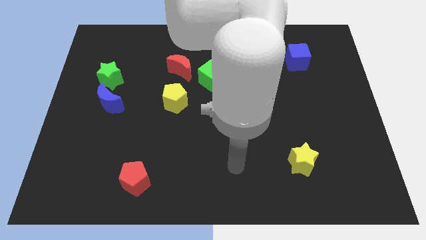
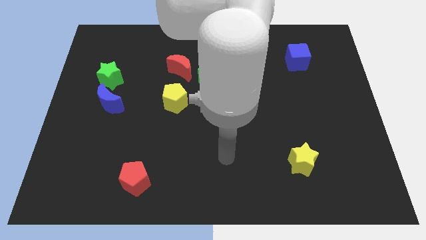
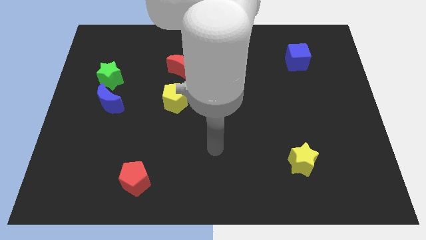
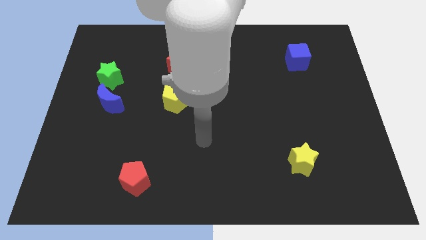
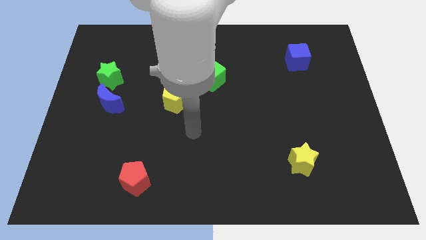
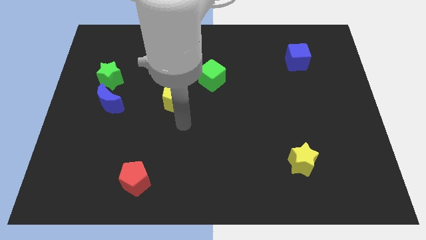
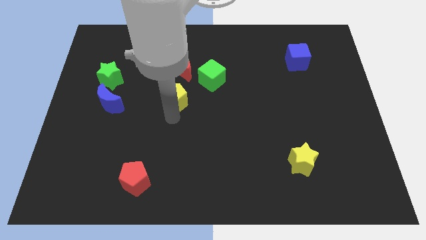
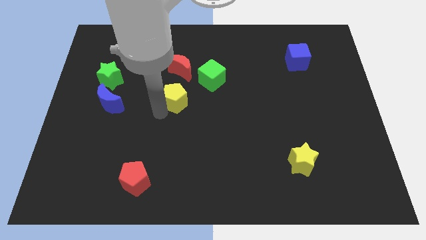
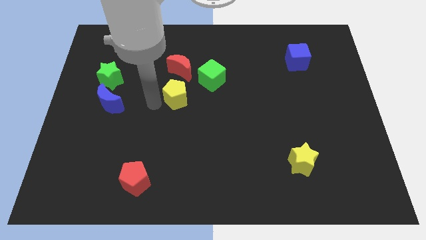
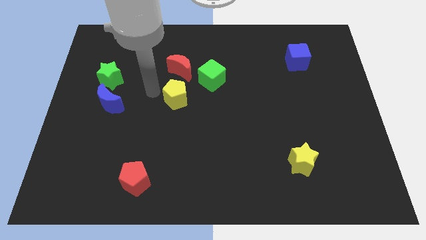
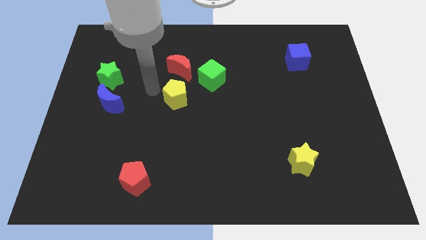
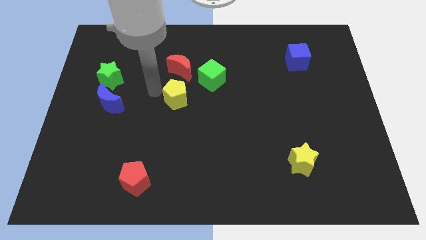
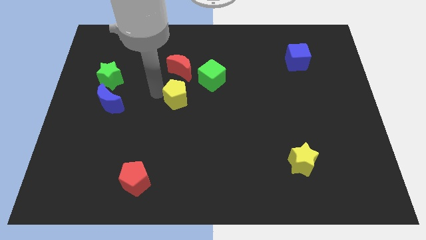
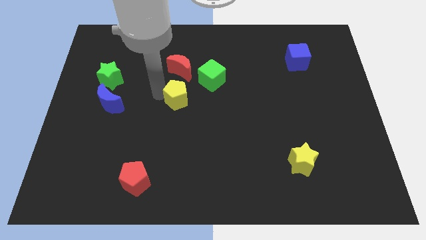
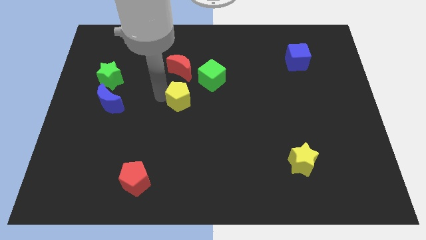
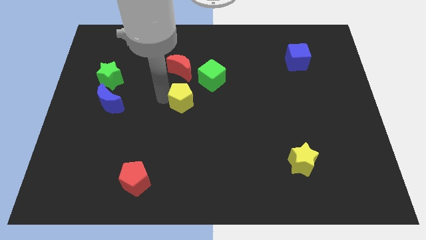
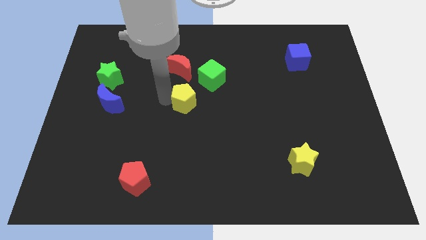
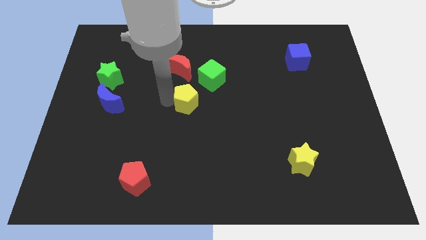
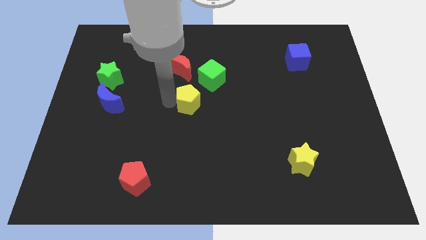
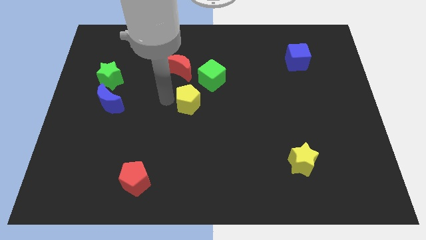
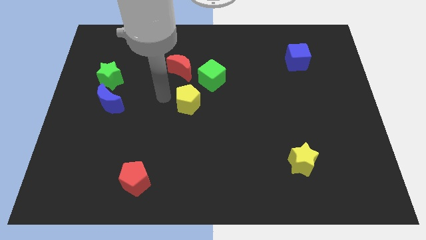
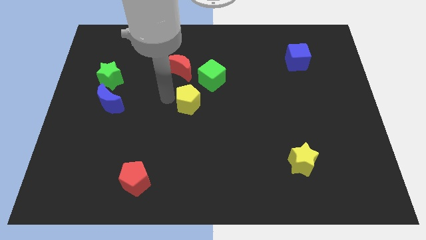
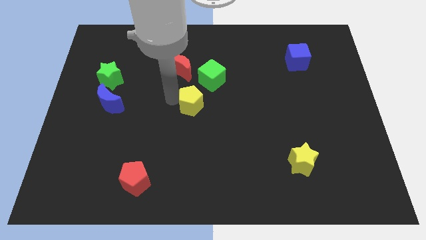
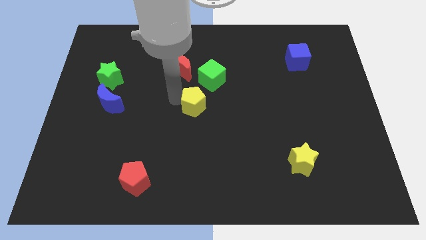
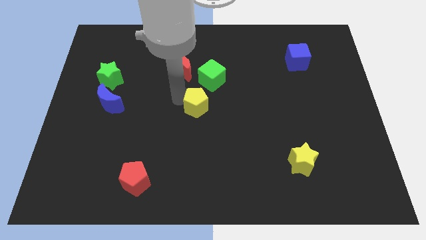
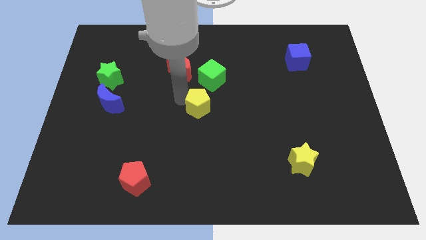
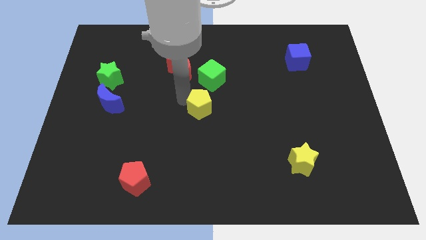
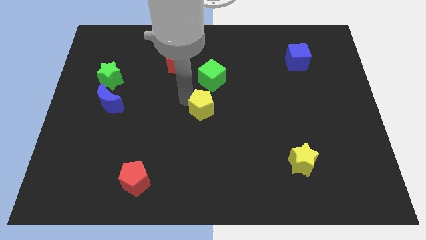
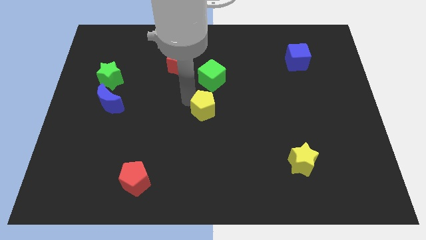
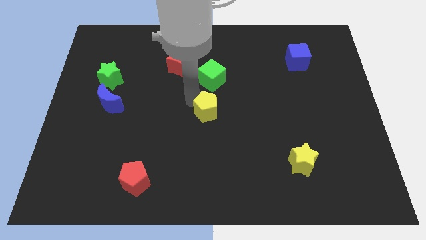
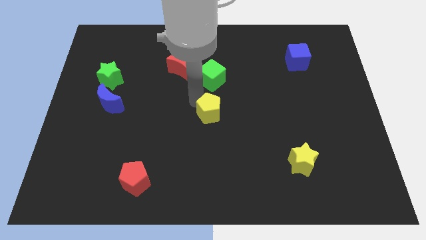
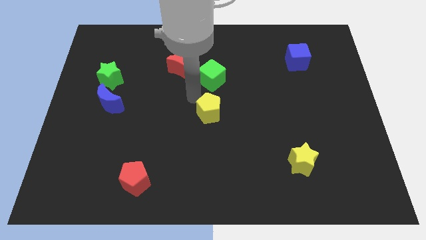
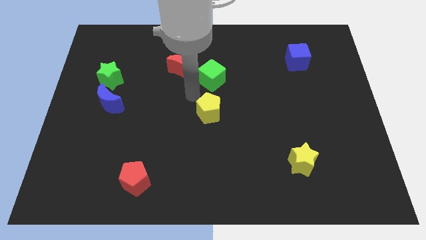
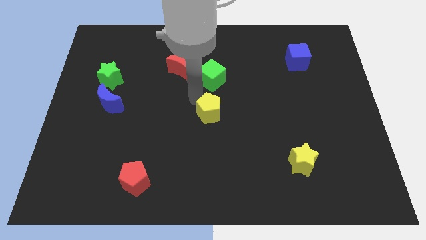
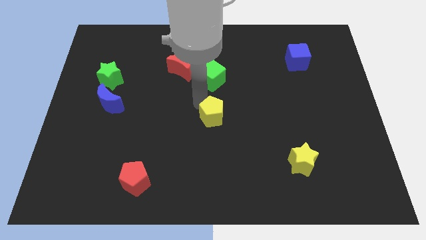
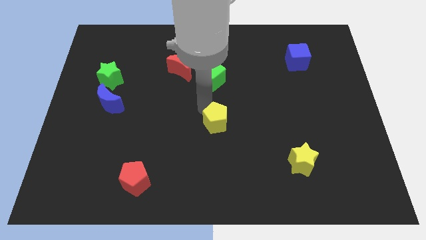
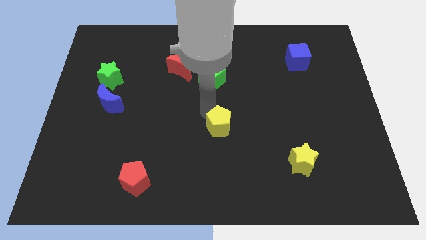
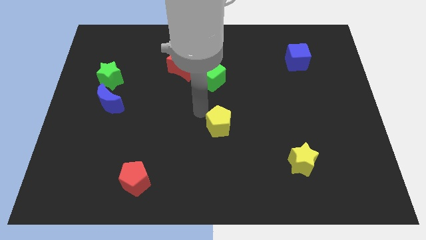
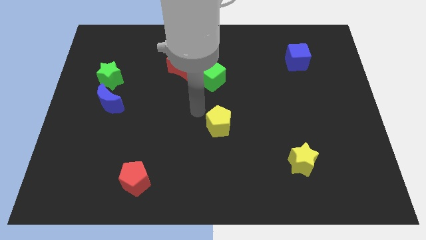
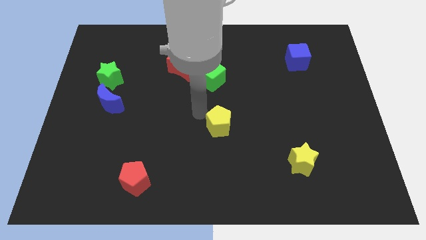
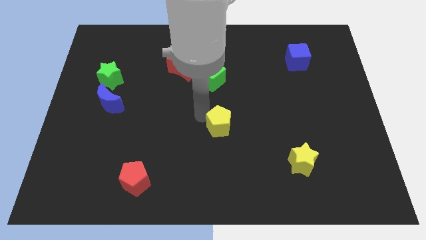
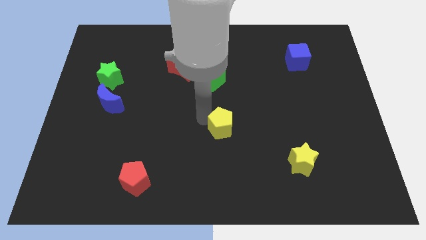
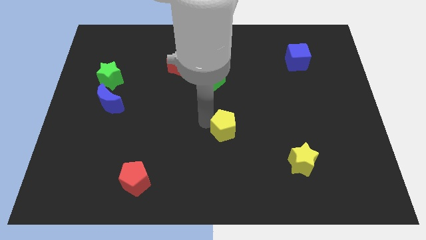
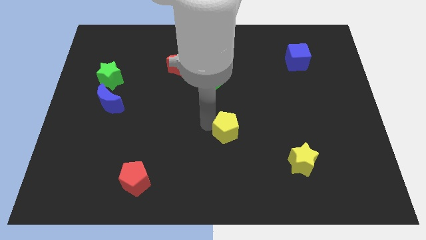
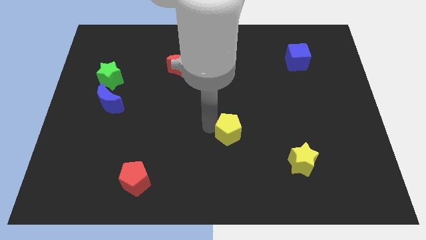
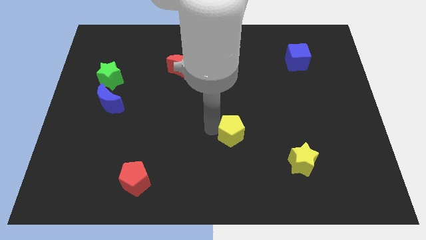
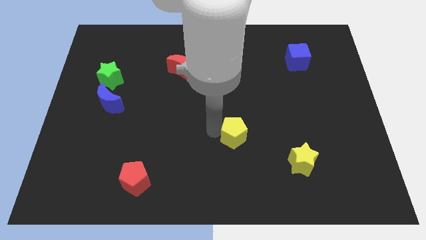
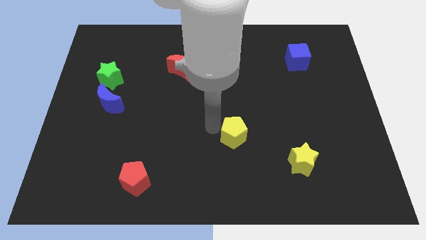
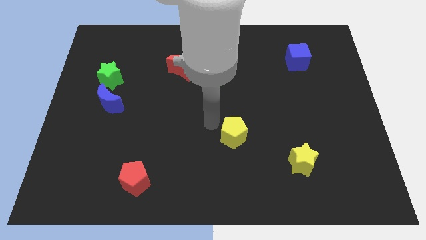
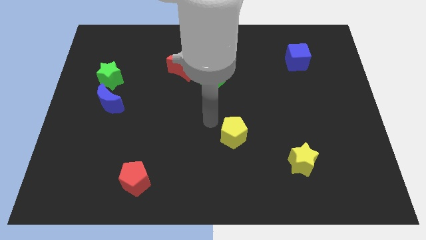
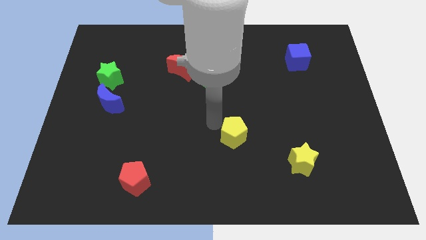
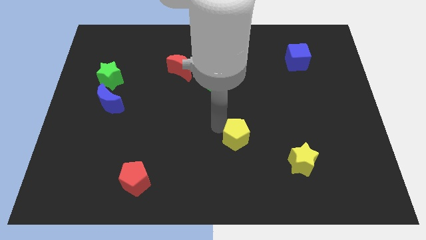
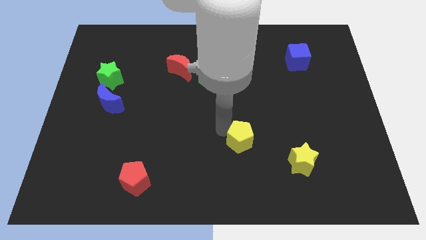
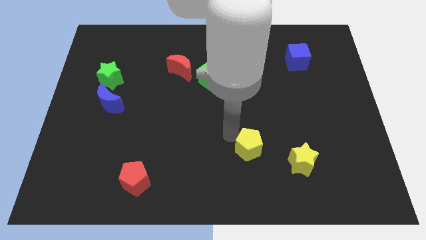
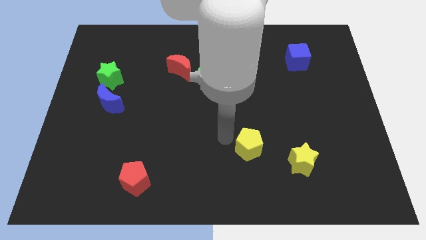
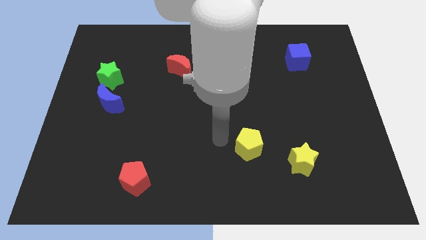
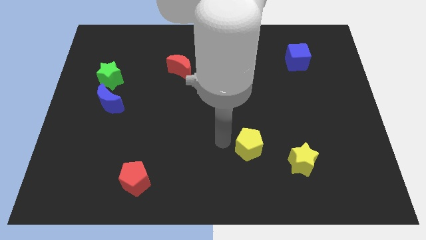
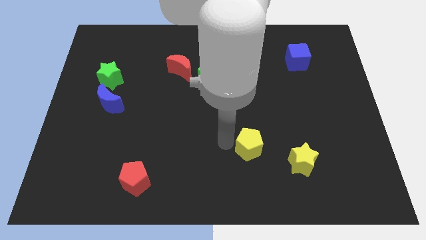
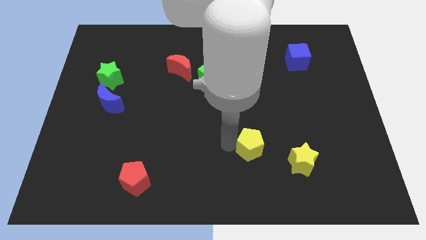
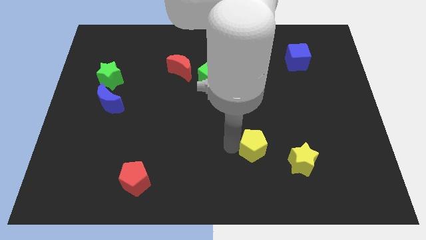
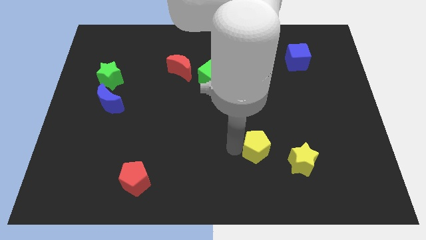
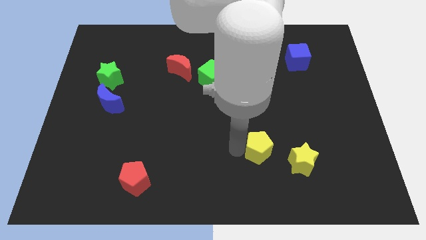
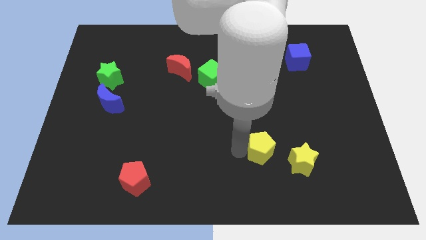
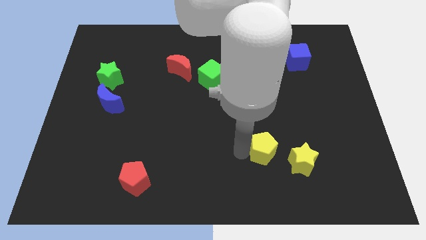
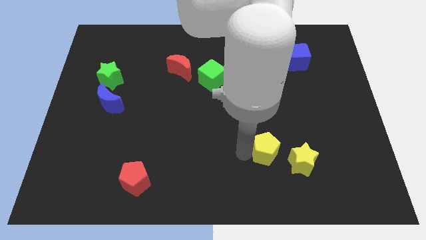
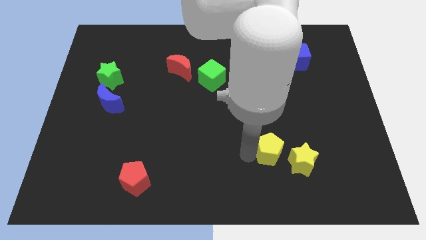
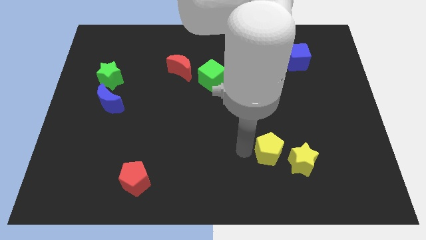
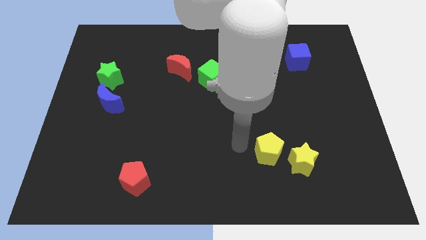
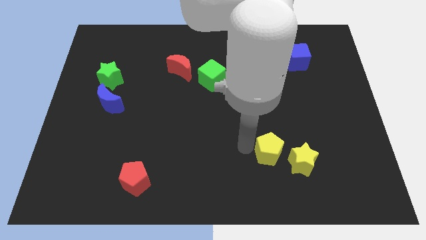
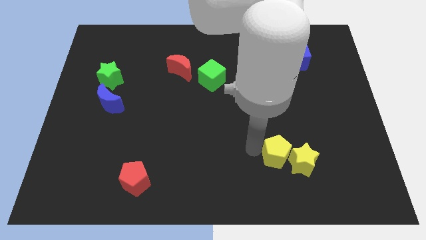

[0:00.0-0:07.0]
put the yellow pentagon to the yellow star

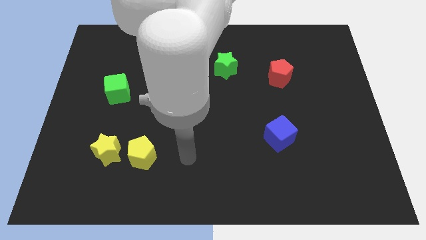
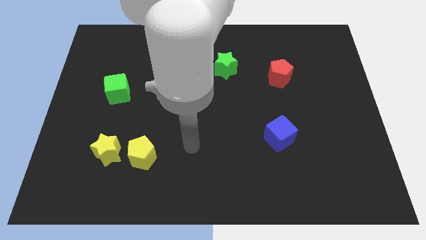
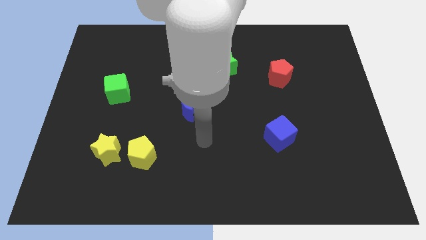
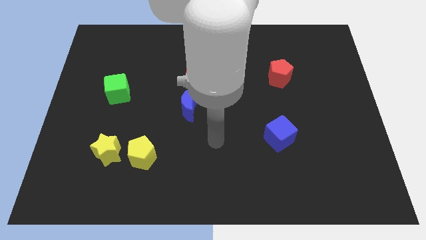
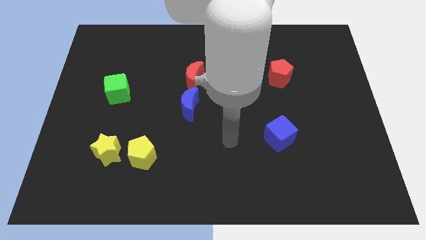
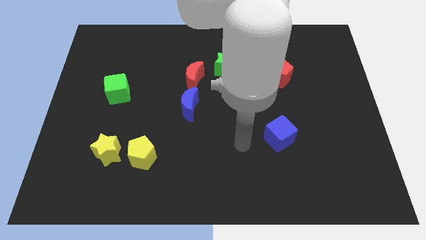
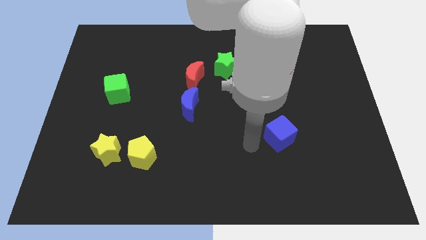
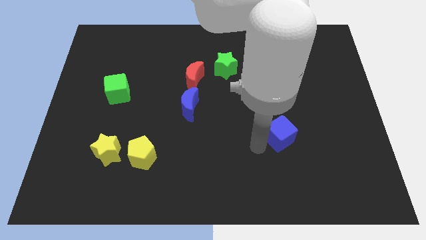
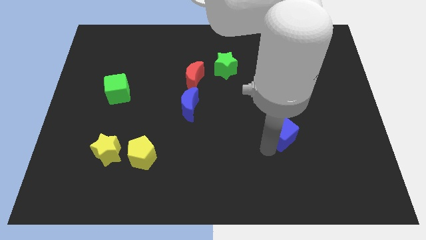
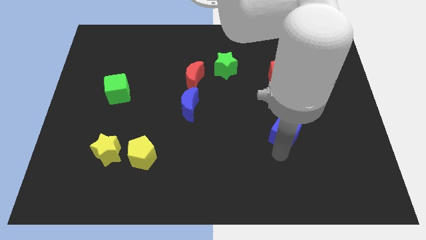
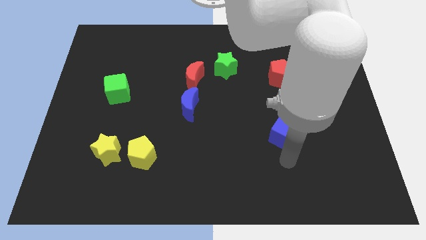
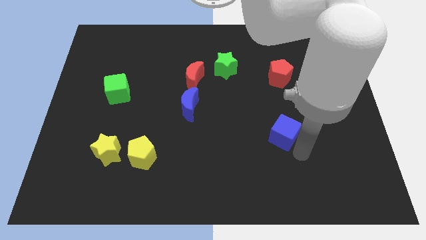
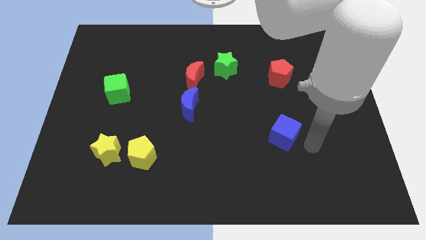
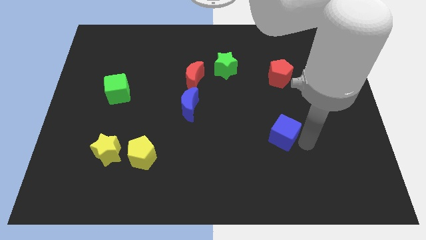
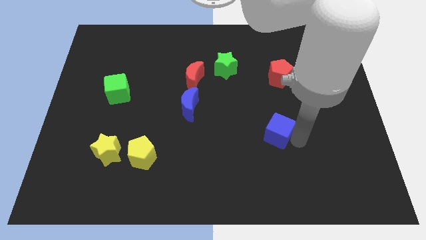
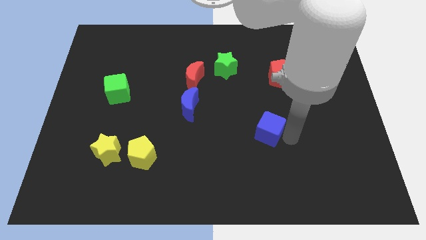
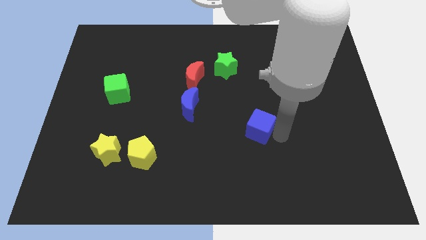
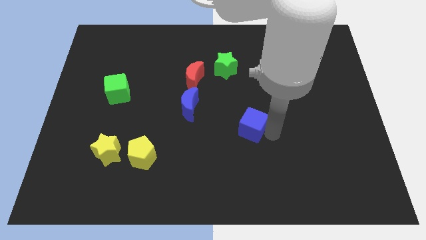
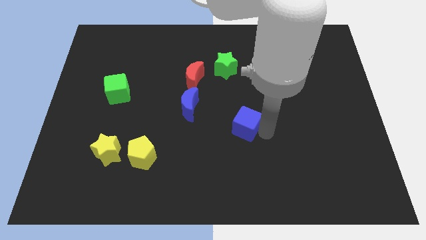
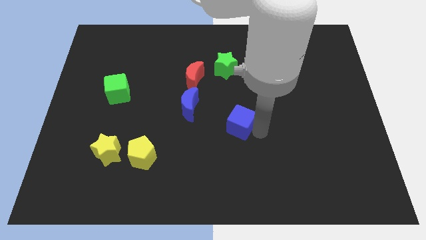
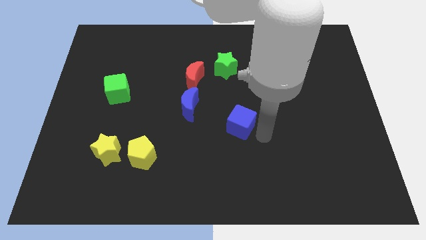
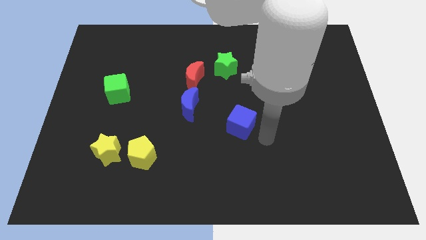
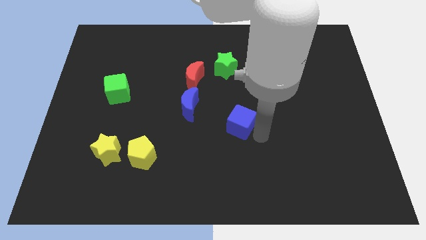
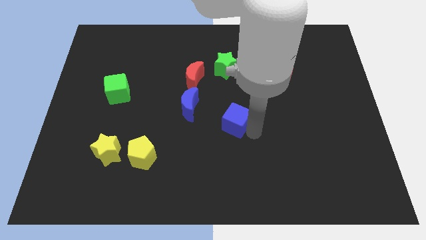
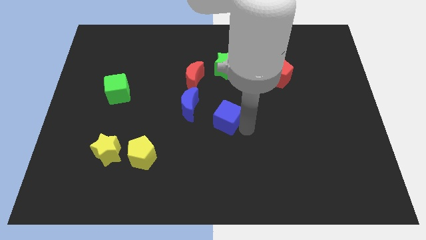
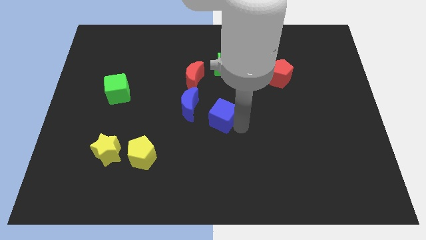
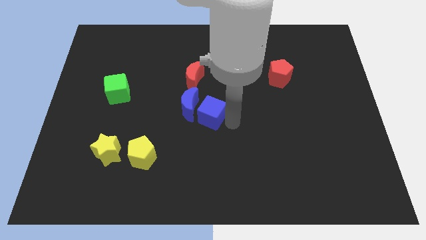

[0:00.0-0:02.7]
push the blue cube close to the blue moon
